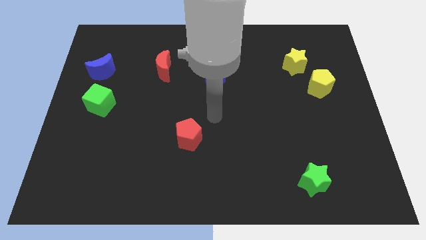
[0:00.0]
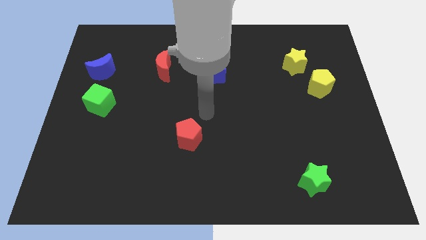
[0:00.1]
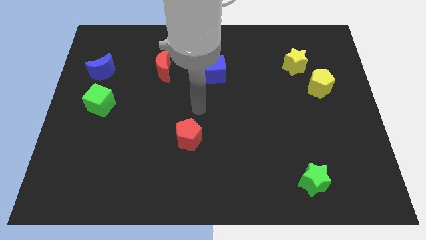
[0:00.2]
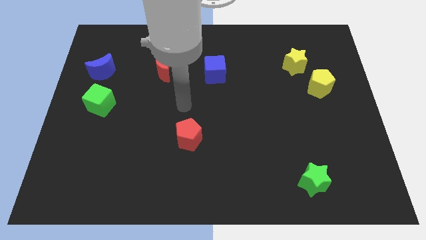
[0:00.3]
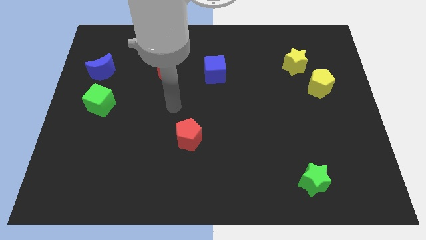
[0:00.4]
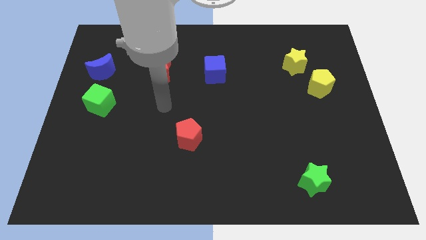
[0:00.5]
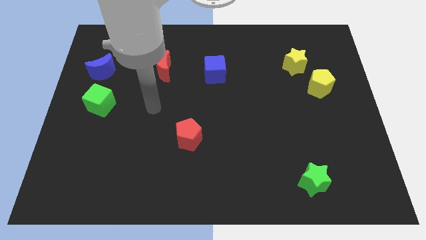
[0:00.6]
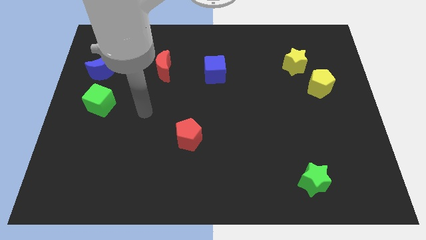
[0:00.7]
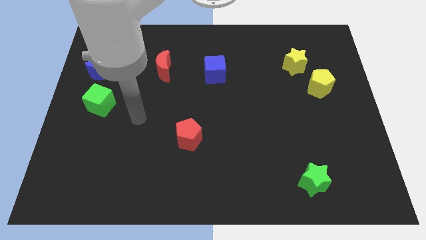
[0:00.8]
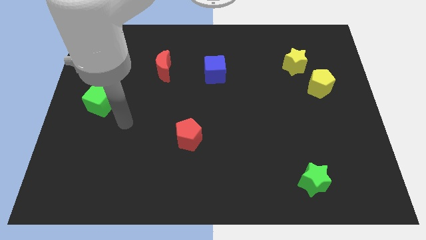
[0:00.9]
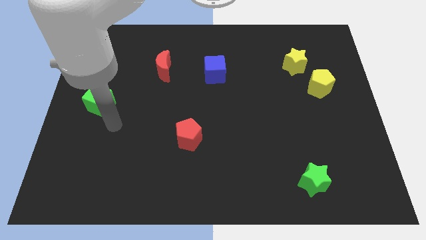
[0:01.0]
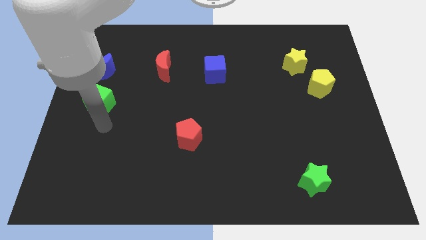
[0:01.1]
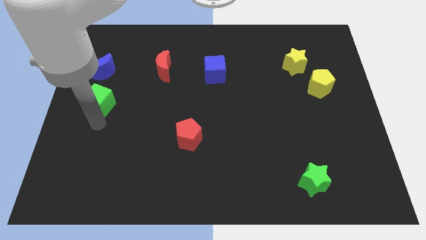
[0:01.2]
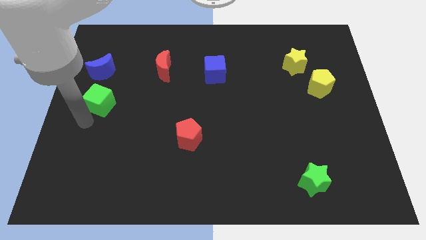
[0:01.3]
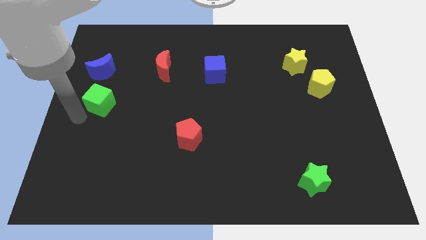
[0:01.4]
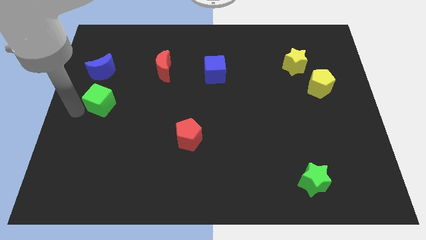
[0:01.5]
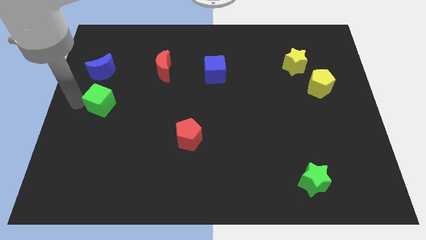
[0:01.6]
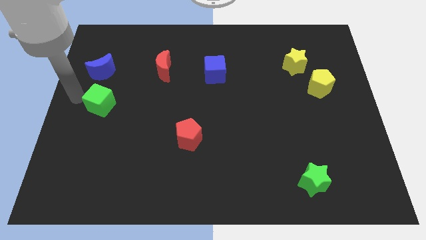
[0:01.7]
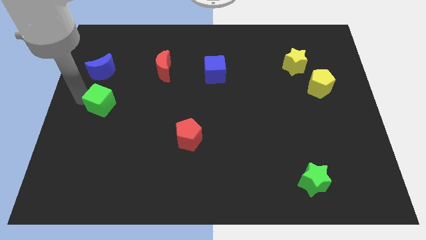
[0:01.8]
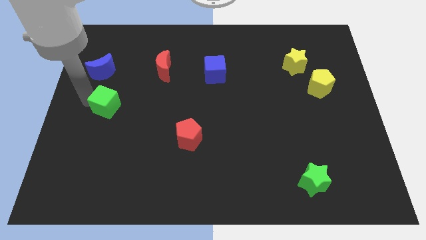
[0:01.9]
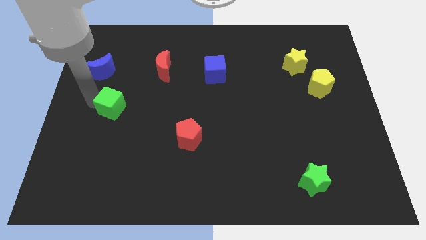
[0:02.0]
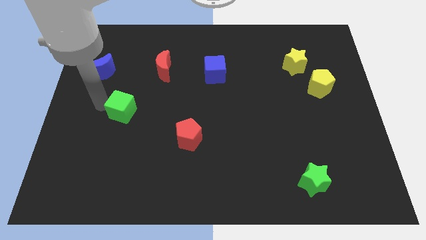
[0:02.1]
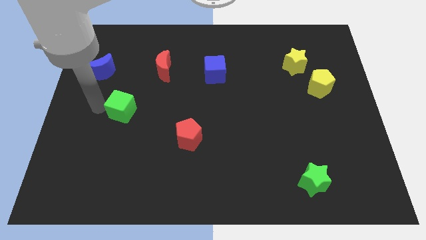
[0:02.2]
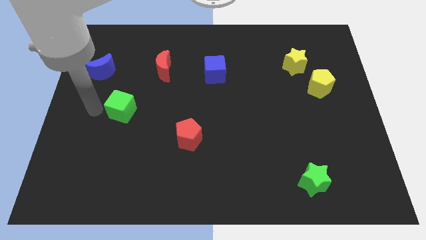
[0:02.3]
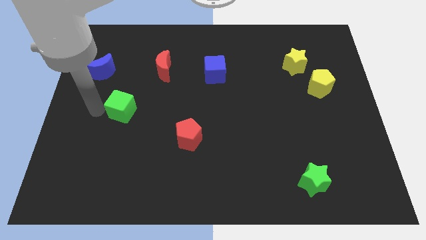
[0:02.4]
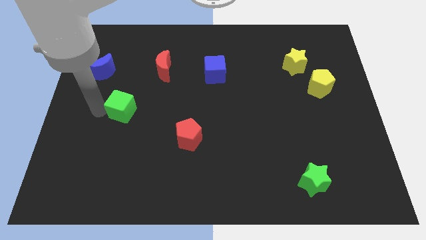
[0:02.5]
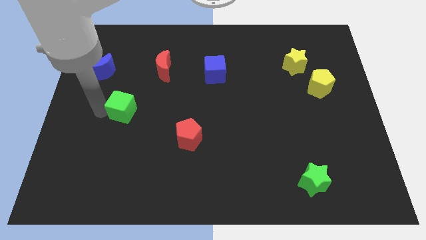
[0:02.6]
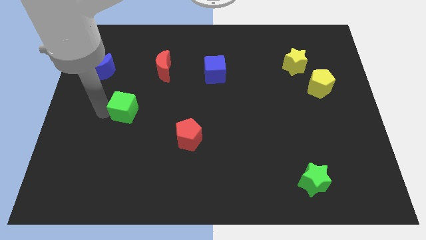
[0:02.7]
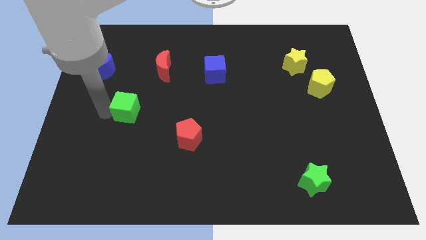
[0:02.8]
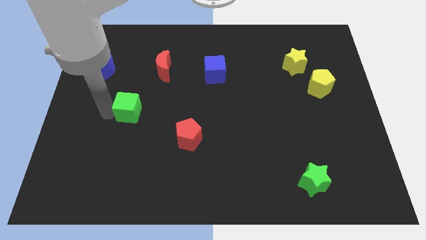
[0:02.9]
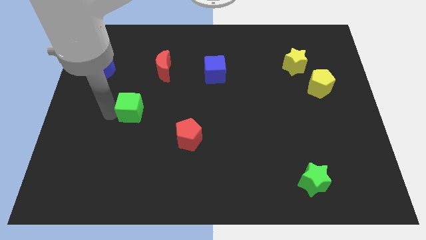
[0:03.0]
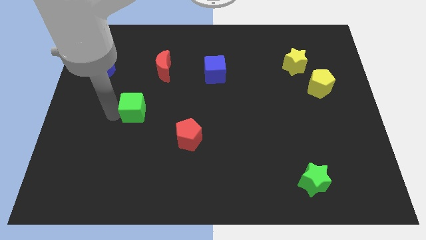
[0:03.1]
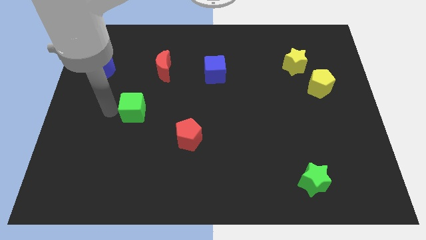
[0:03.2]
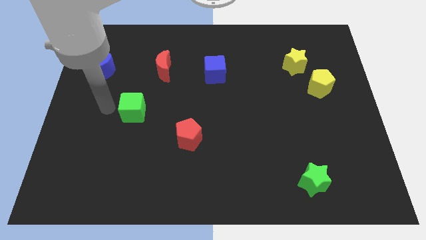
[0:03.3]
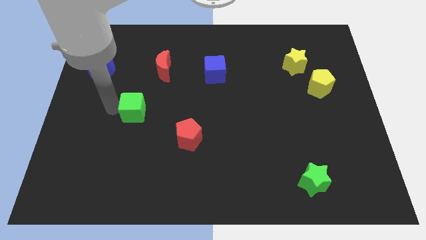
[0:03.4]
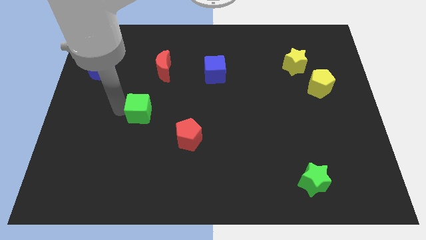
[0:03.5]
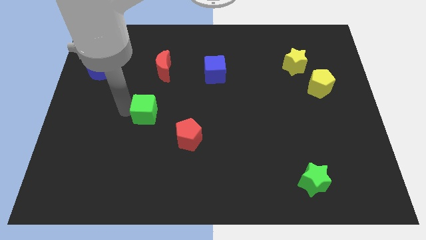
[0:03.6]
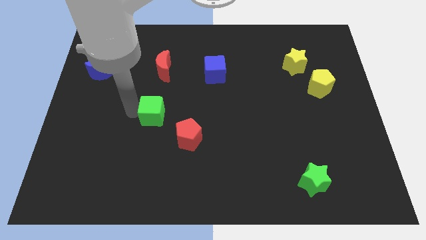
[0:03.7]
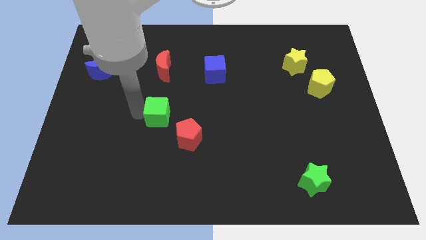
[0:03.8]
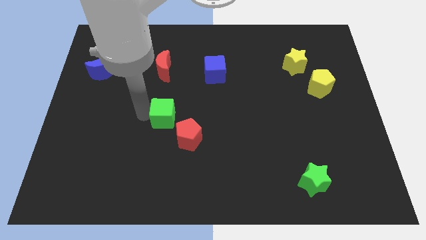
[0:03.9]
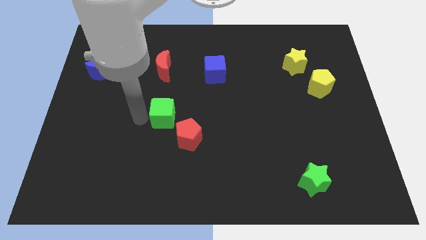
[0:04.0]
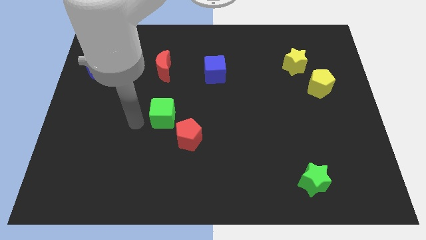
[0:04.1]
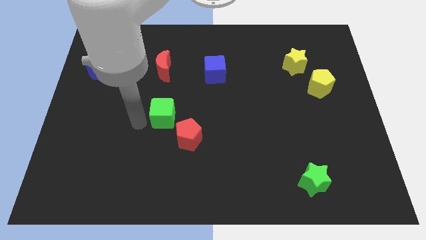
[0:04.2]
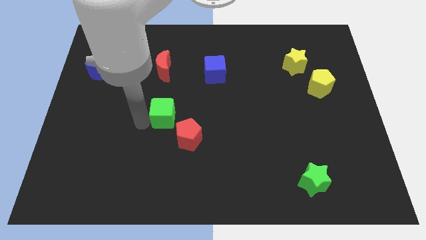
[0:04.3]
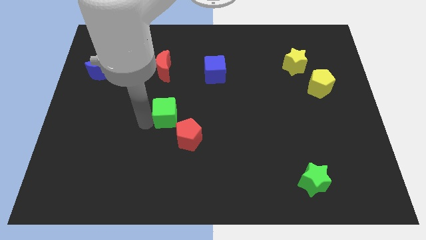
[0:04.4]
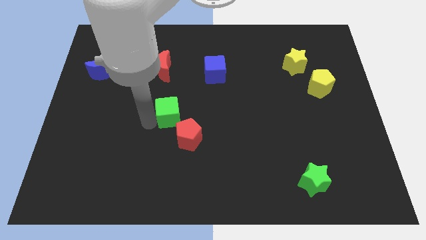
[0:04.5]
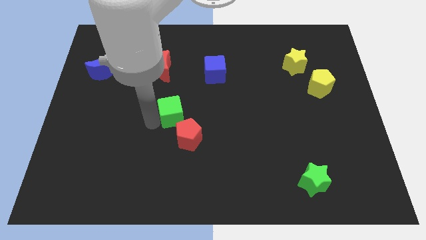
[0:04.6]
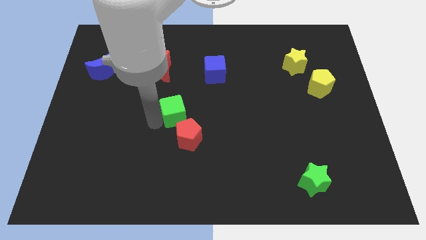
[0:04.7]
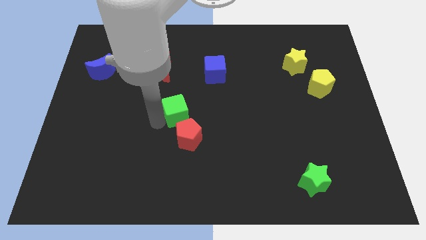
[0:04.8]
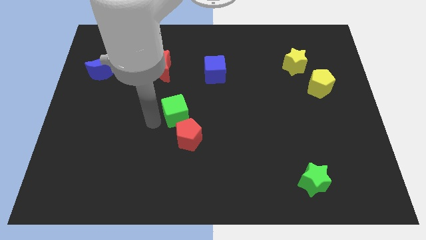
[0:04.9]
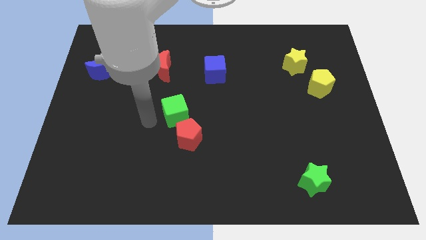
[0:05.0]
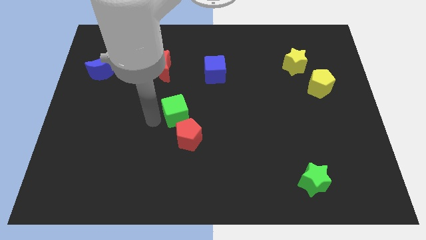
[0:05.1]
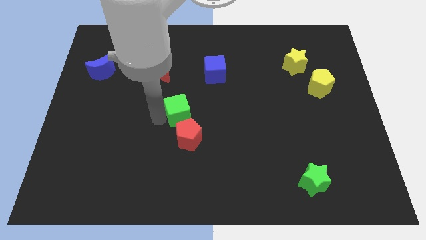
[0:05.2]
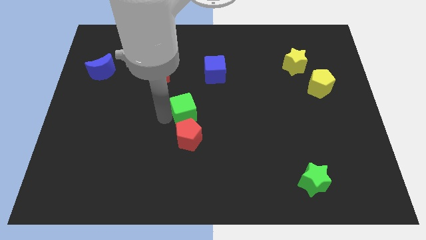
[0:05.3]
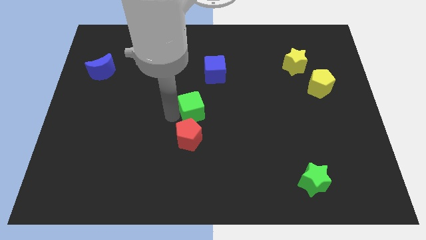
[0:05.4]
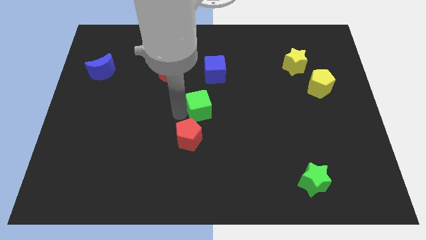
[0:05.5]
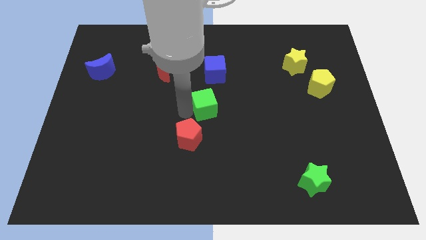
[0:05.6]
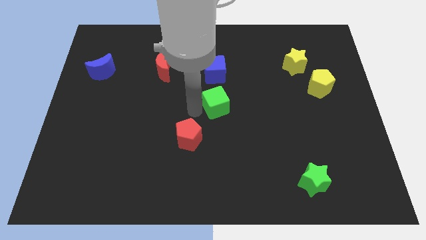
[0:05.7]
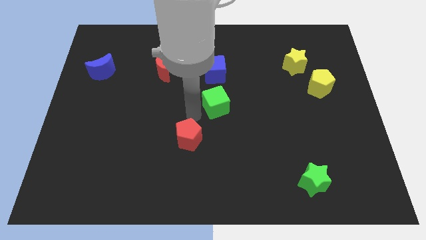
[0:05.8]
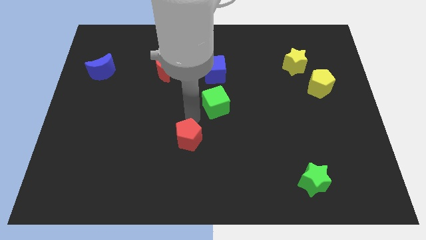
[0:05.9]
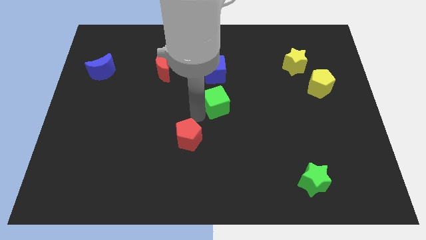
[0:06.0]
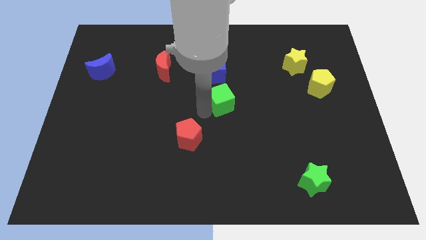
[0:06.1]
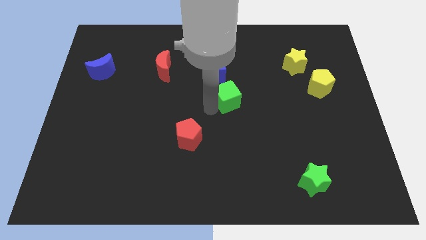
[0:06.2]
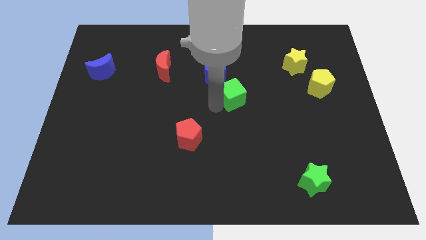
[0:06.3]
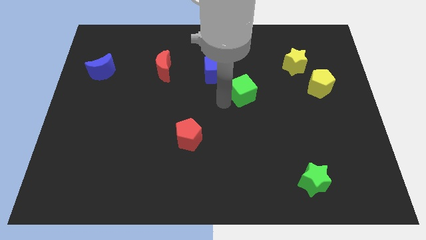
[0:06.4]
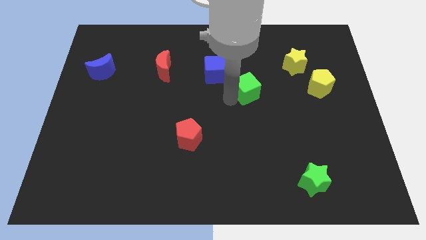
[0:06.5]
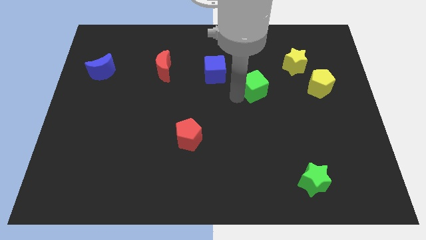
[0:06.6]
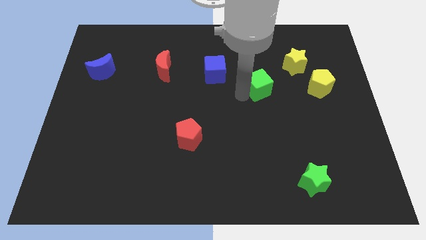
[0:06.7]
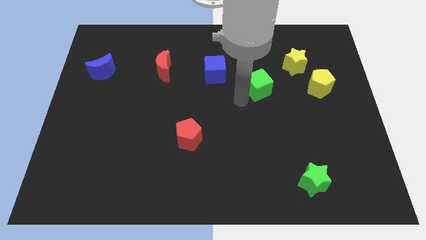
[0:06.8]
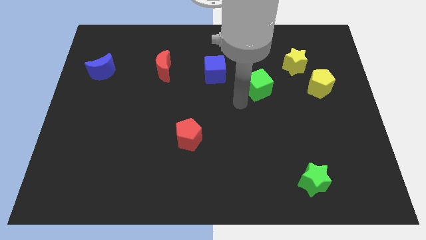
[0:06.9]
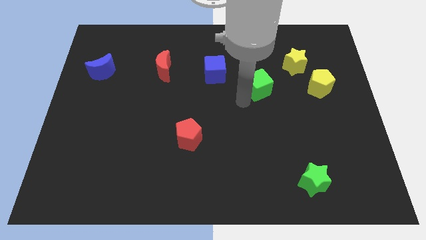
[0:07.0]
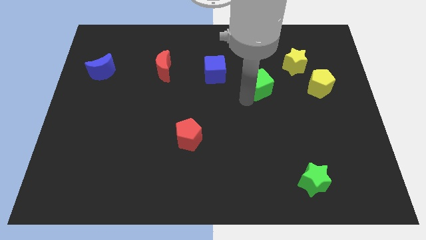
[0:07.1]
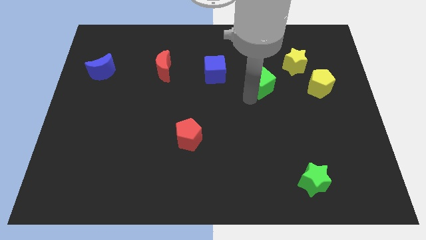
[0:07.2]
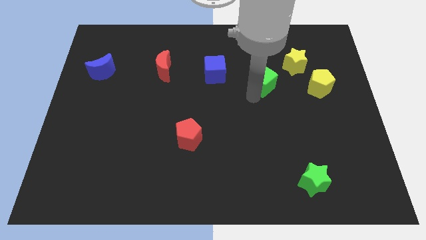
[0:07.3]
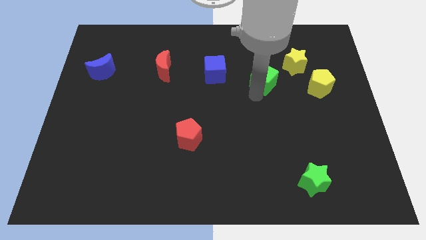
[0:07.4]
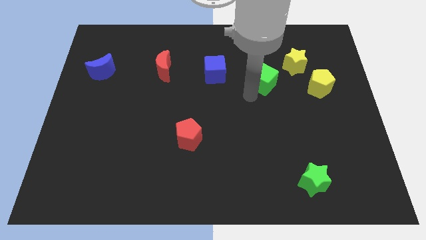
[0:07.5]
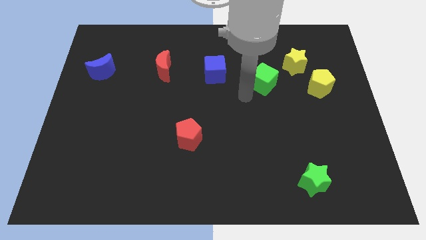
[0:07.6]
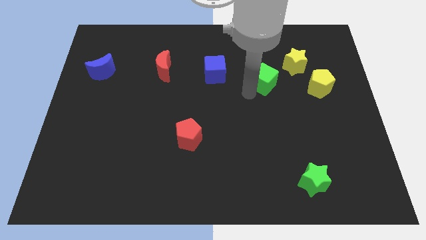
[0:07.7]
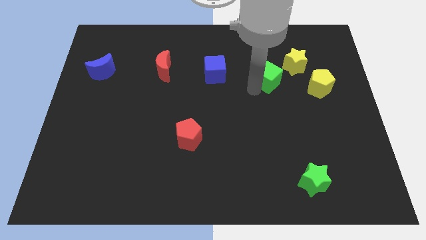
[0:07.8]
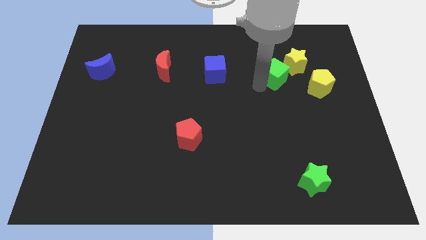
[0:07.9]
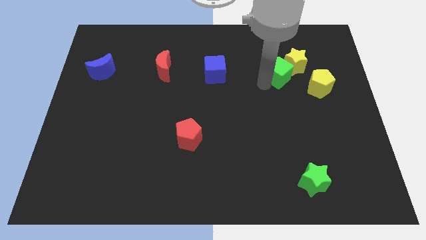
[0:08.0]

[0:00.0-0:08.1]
move the green cube next to the yellow star
